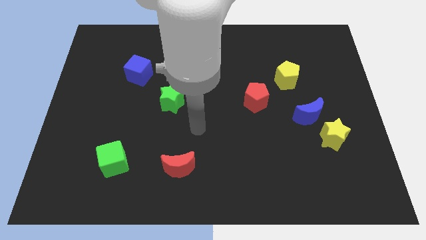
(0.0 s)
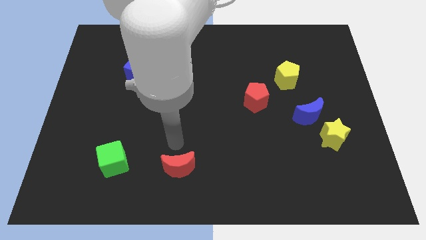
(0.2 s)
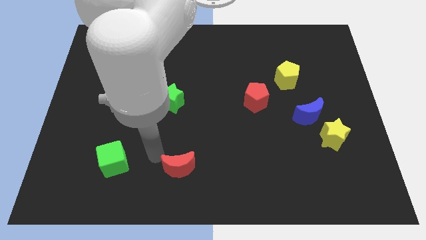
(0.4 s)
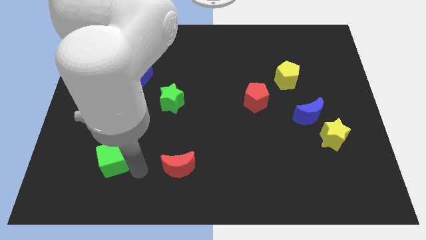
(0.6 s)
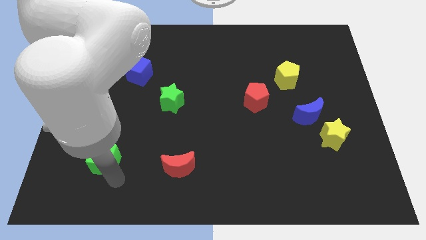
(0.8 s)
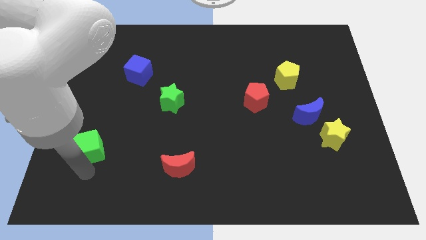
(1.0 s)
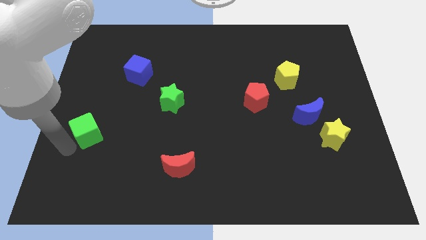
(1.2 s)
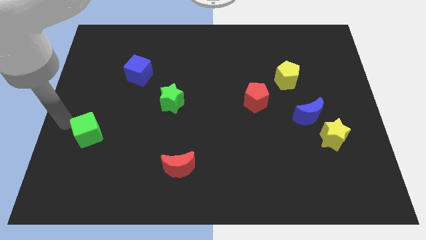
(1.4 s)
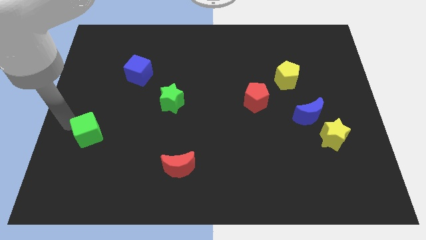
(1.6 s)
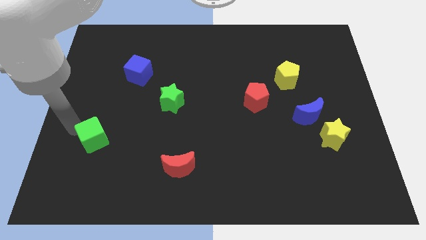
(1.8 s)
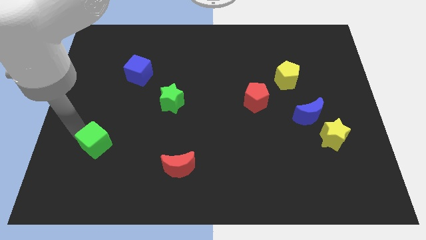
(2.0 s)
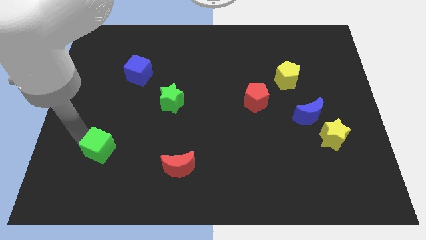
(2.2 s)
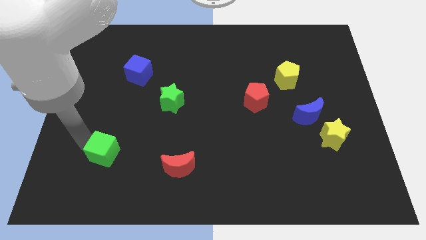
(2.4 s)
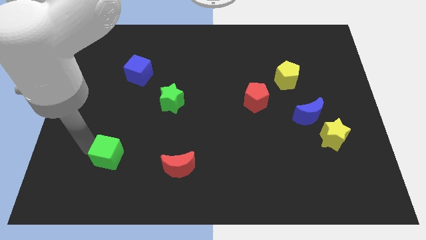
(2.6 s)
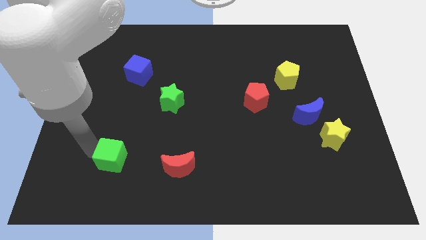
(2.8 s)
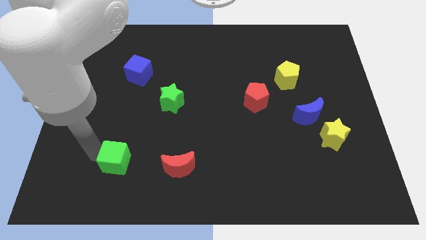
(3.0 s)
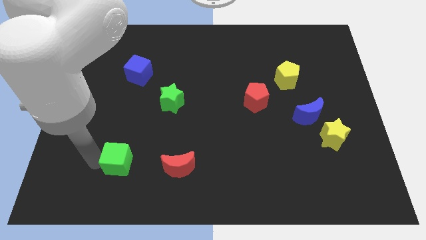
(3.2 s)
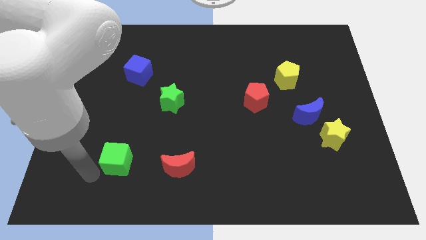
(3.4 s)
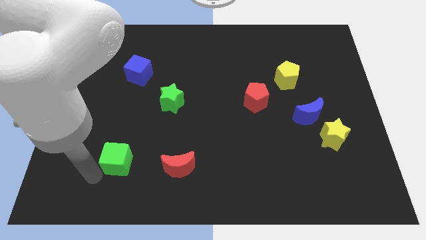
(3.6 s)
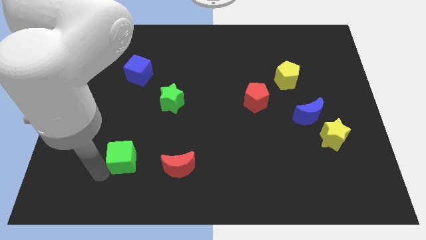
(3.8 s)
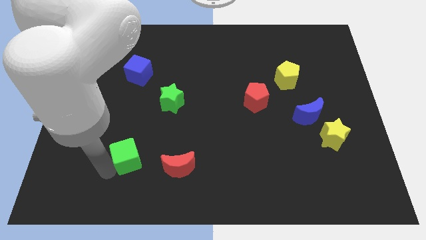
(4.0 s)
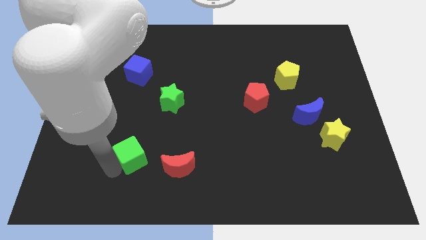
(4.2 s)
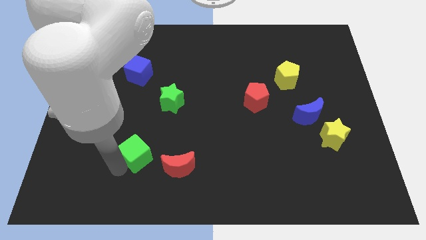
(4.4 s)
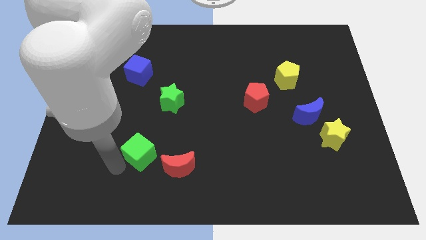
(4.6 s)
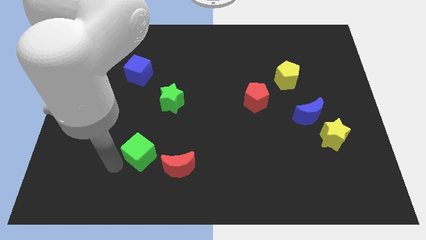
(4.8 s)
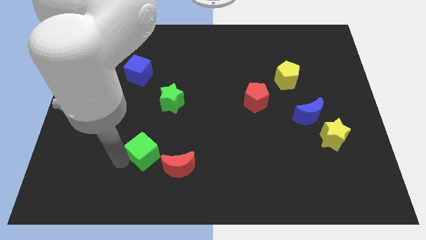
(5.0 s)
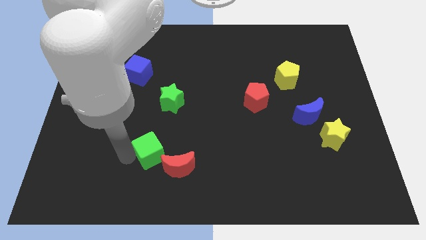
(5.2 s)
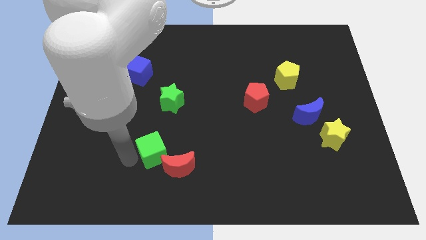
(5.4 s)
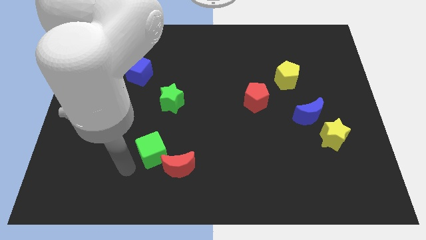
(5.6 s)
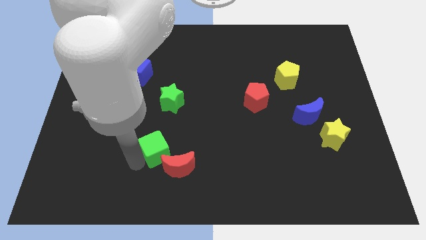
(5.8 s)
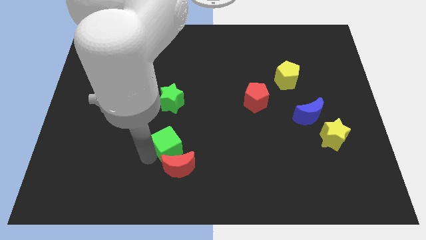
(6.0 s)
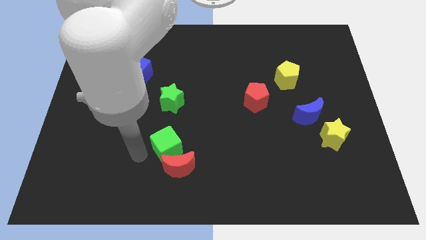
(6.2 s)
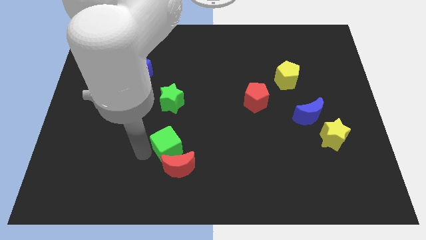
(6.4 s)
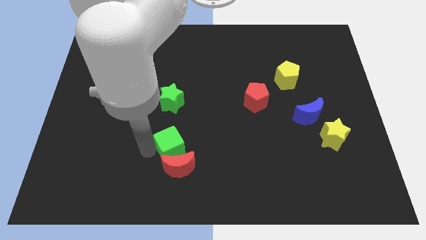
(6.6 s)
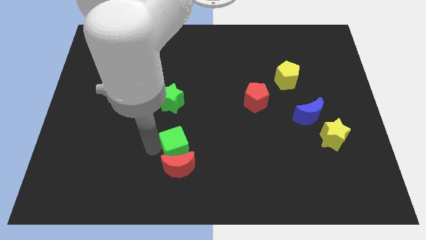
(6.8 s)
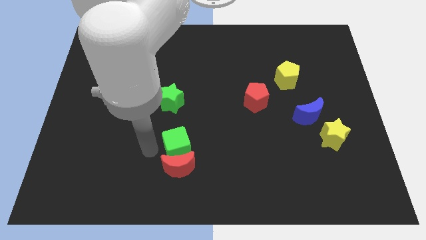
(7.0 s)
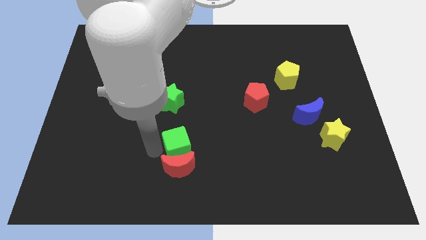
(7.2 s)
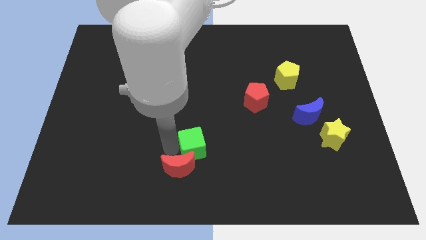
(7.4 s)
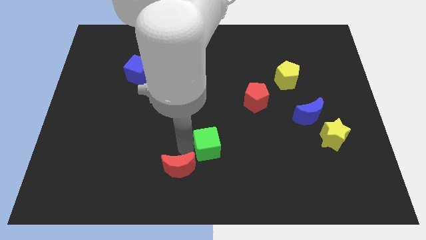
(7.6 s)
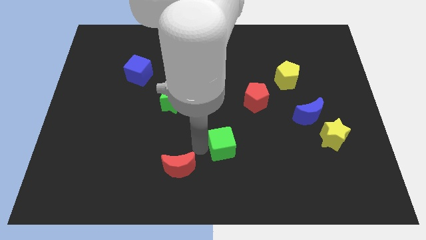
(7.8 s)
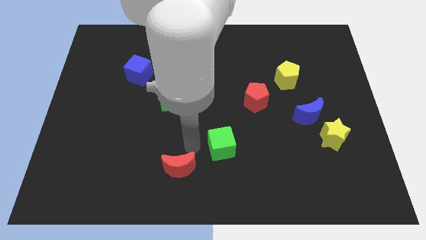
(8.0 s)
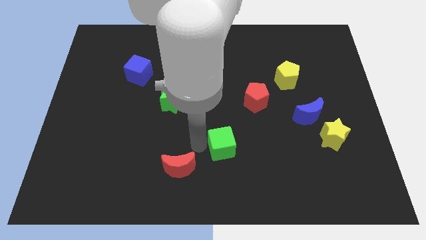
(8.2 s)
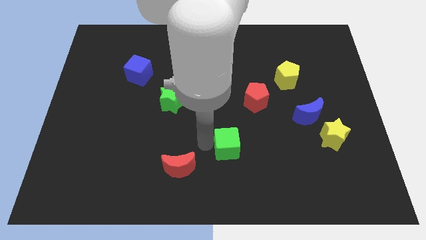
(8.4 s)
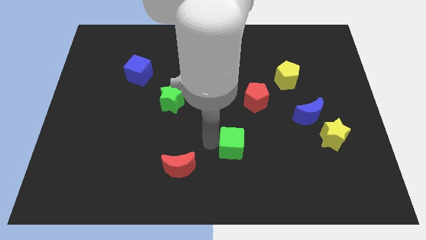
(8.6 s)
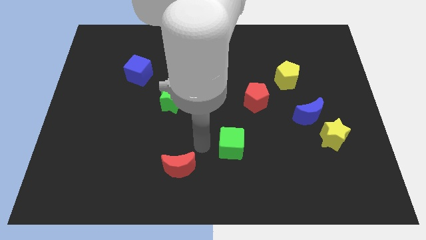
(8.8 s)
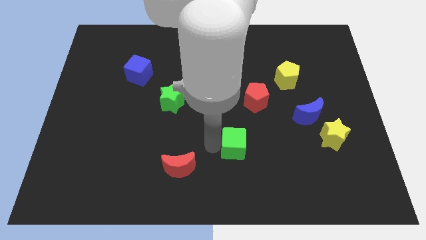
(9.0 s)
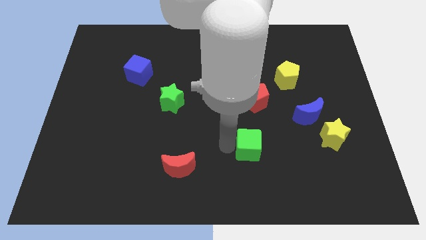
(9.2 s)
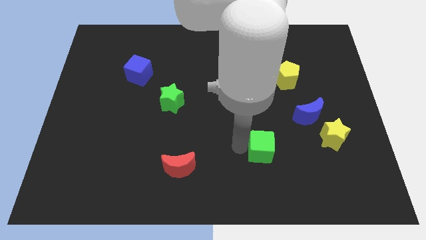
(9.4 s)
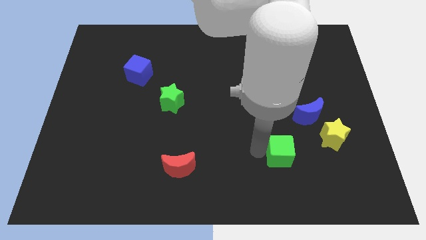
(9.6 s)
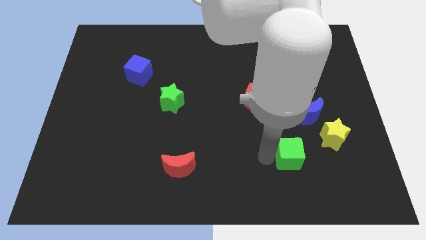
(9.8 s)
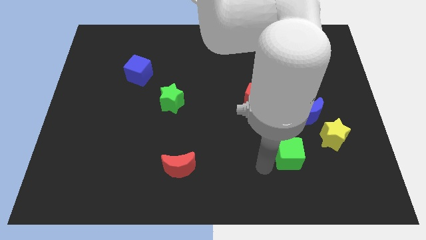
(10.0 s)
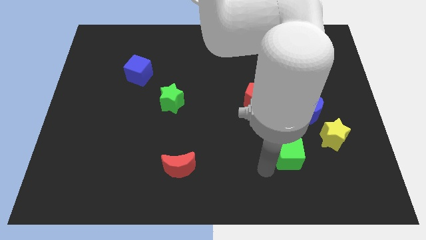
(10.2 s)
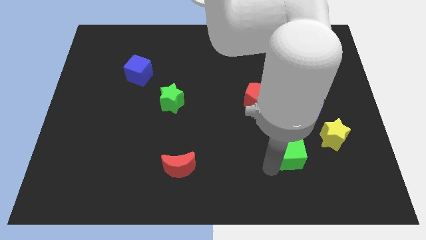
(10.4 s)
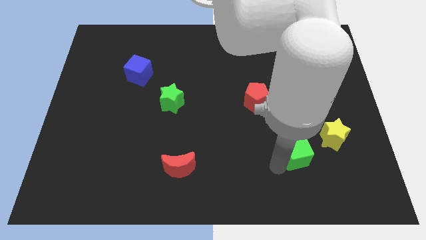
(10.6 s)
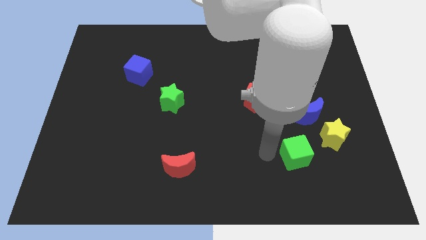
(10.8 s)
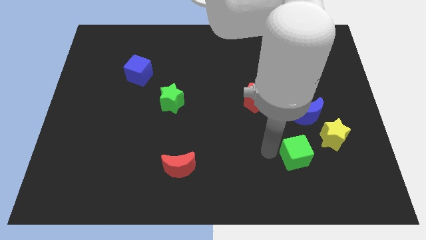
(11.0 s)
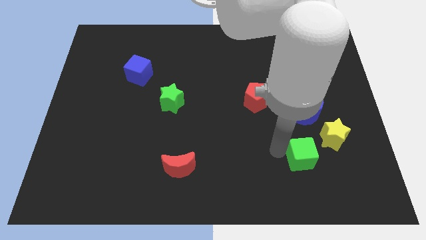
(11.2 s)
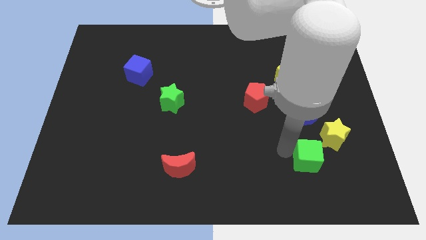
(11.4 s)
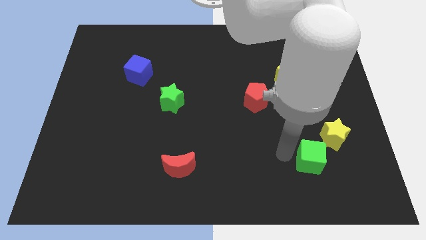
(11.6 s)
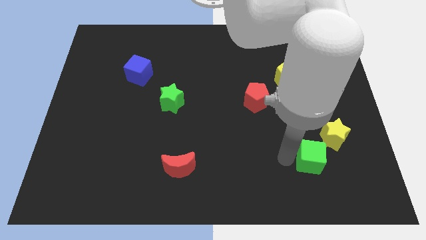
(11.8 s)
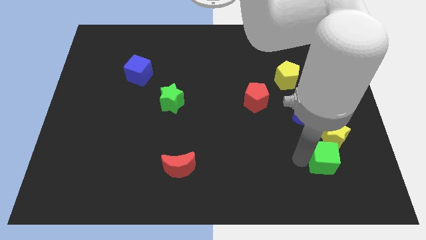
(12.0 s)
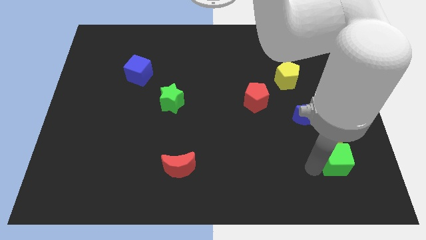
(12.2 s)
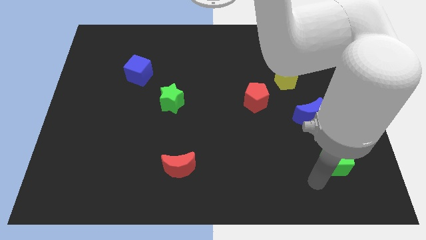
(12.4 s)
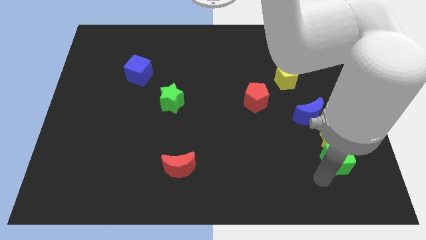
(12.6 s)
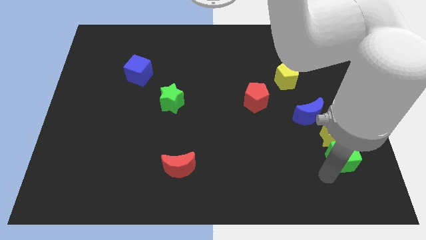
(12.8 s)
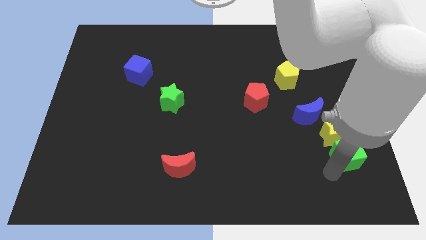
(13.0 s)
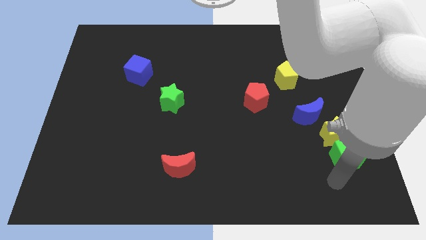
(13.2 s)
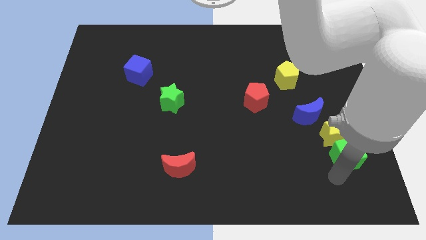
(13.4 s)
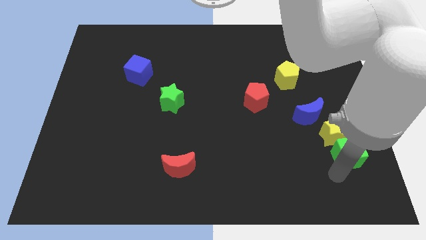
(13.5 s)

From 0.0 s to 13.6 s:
slide the green cube diagonally down and to the right of the blue moon
